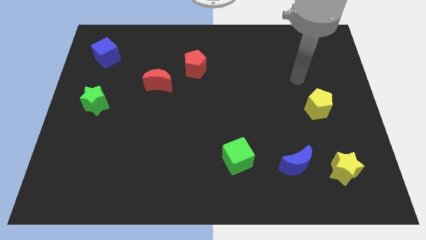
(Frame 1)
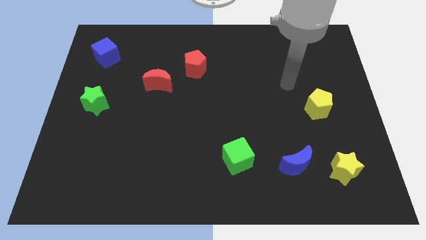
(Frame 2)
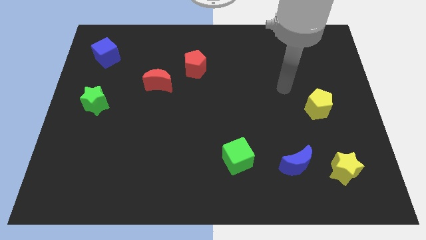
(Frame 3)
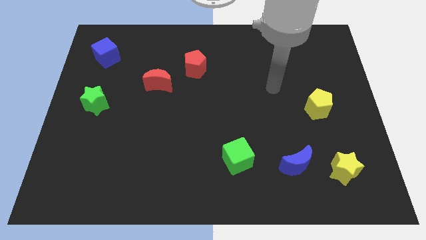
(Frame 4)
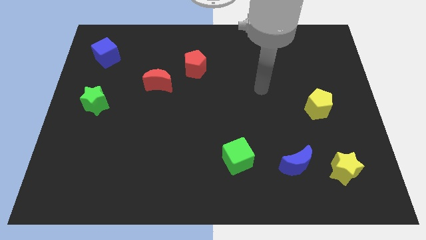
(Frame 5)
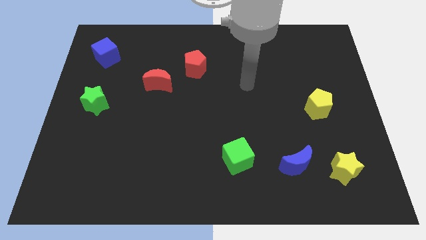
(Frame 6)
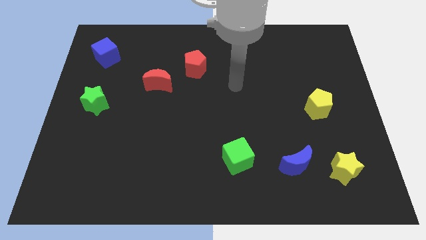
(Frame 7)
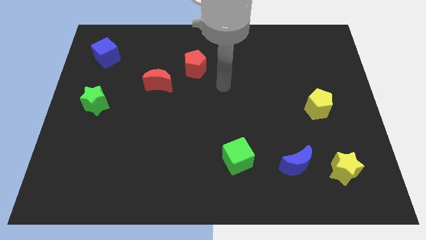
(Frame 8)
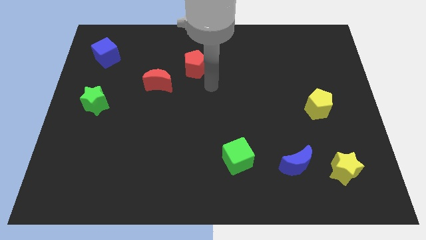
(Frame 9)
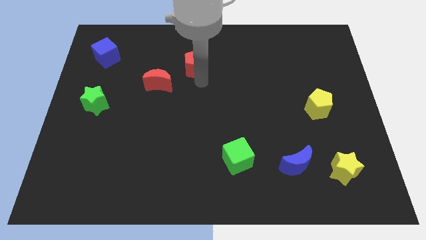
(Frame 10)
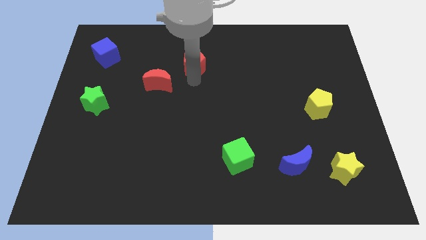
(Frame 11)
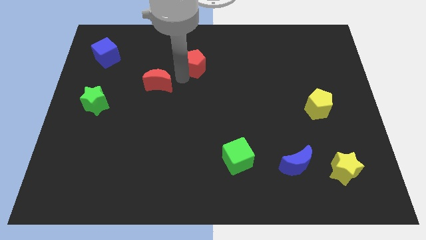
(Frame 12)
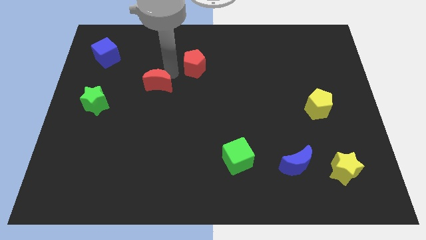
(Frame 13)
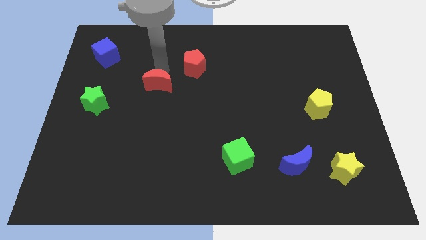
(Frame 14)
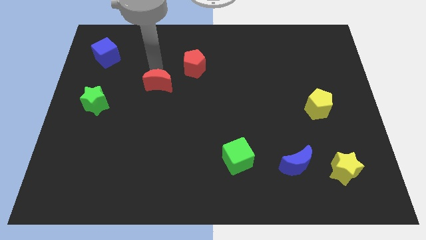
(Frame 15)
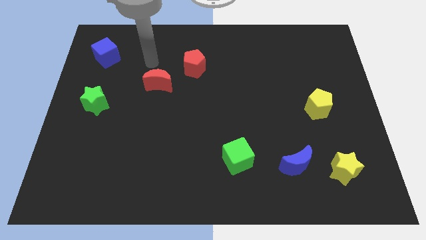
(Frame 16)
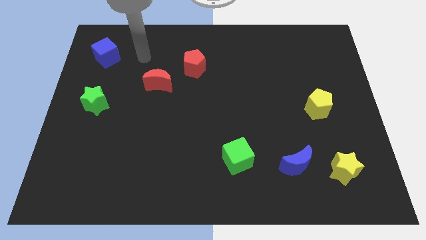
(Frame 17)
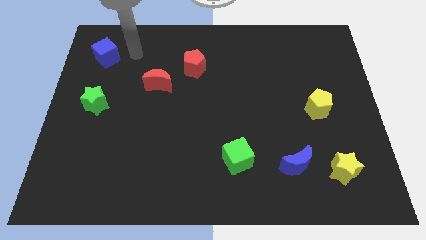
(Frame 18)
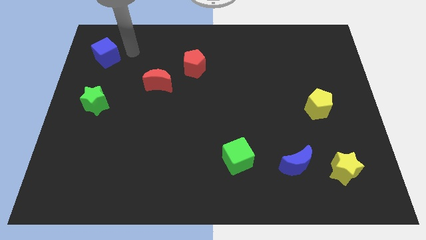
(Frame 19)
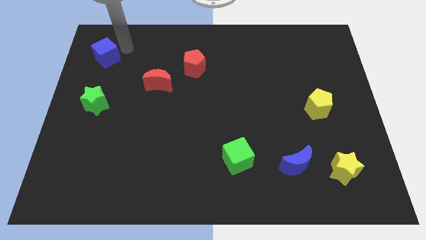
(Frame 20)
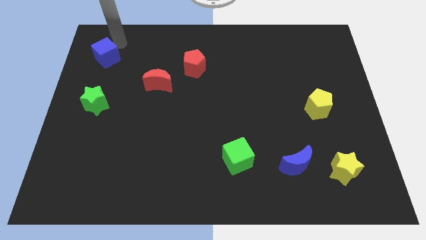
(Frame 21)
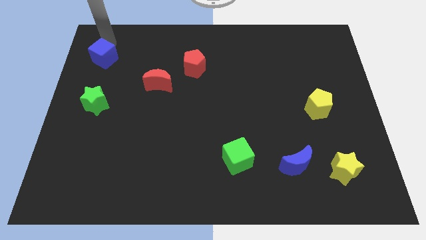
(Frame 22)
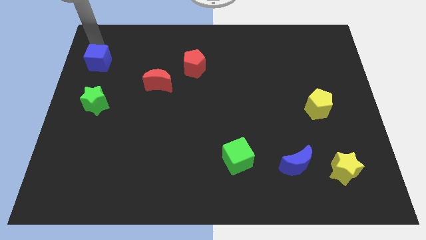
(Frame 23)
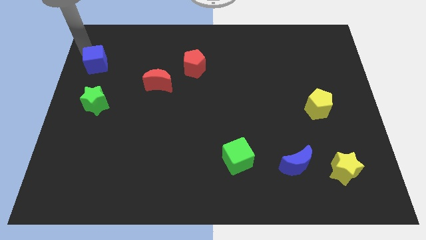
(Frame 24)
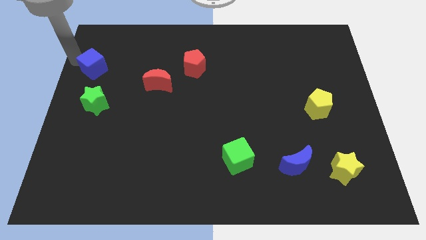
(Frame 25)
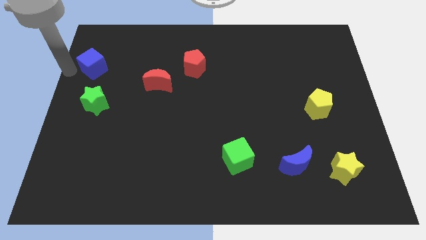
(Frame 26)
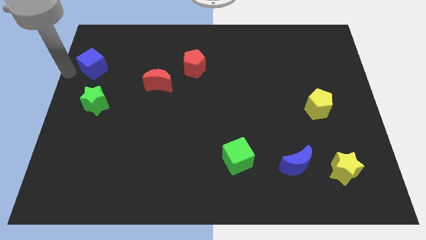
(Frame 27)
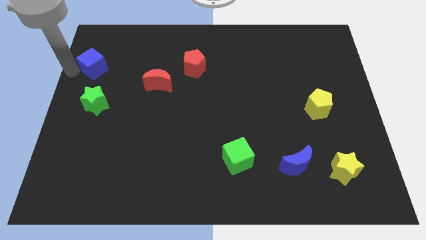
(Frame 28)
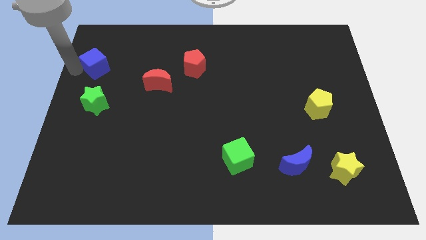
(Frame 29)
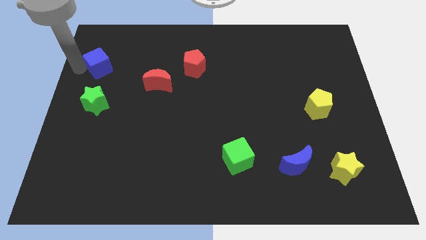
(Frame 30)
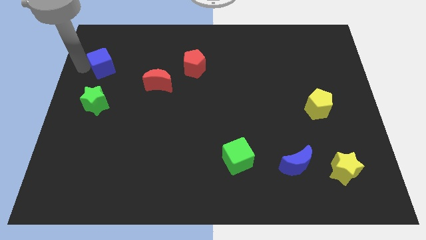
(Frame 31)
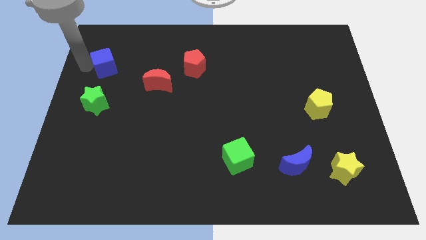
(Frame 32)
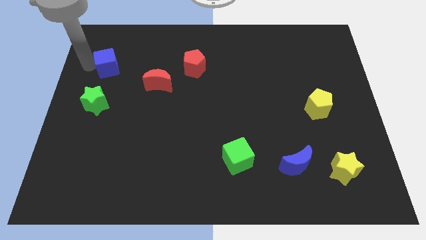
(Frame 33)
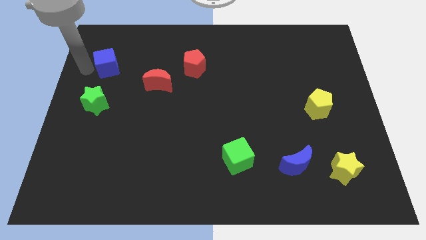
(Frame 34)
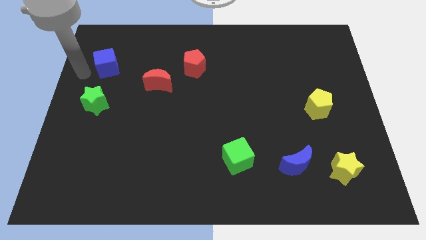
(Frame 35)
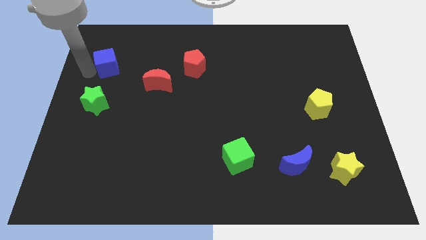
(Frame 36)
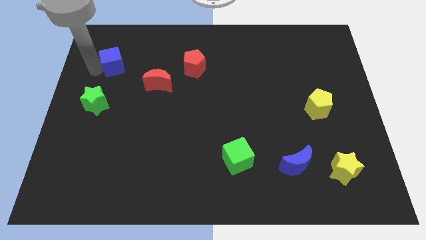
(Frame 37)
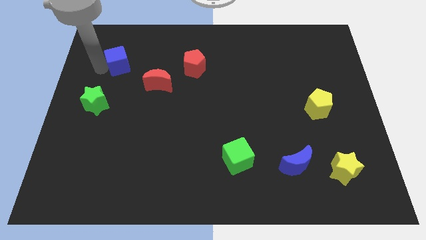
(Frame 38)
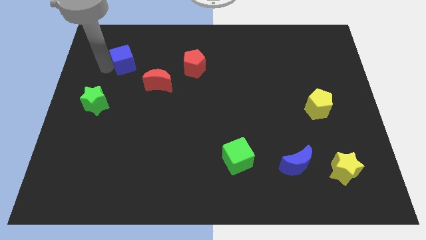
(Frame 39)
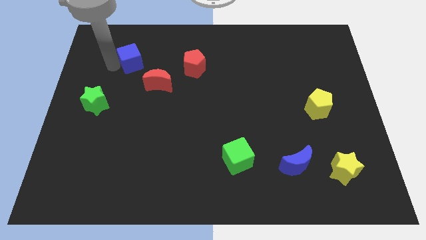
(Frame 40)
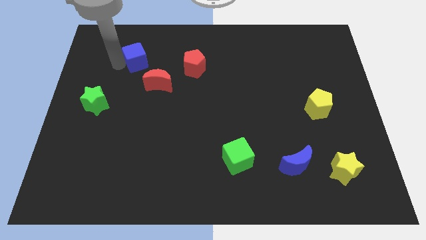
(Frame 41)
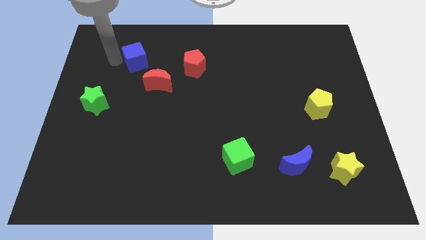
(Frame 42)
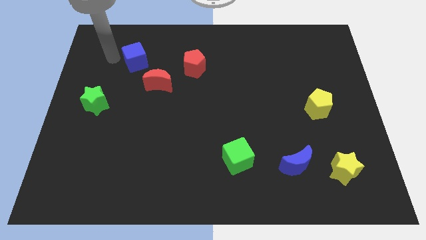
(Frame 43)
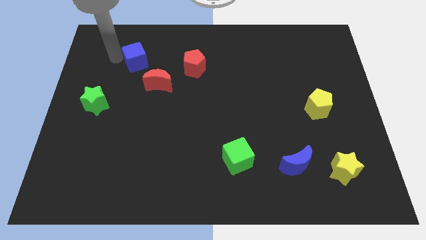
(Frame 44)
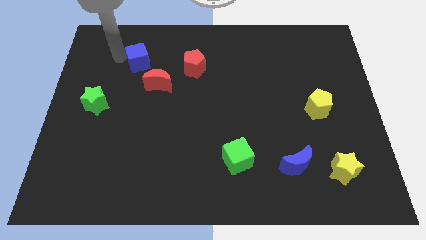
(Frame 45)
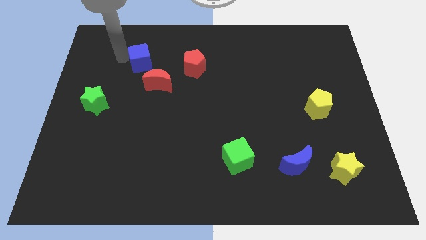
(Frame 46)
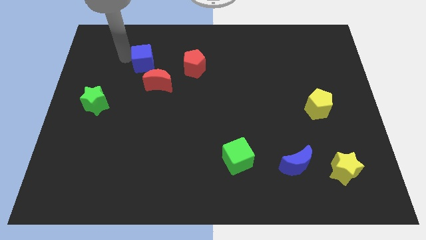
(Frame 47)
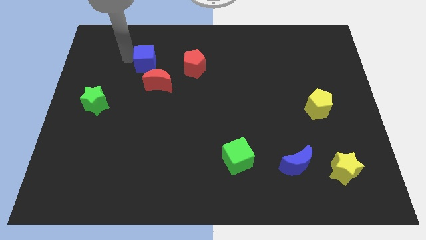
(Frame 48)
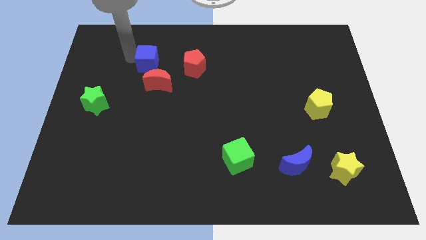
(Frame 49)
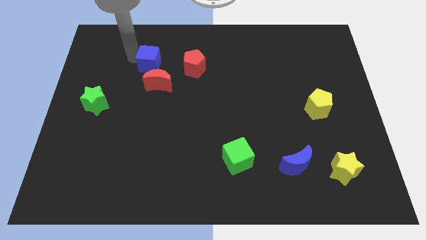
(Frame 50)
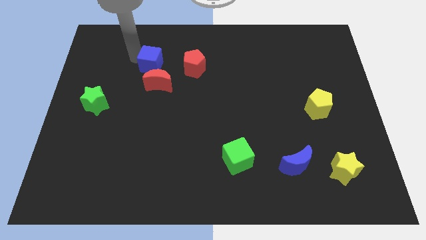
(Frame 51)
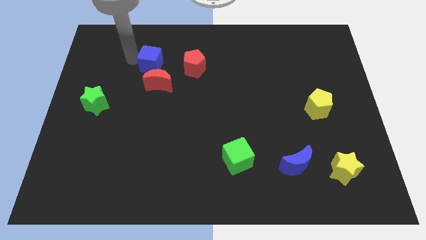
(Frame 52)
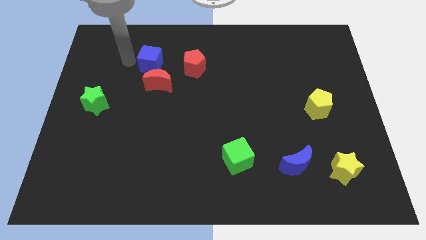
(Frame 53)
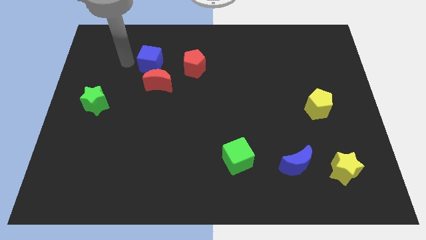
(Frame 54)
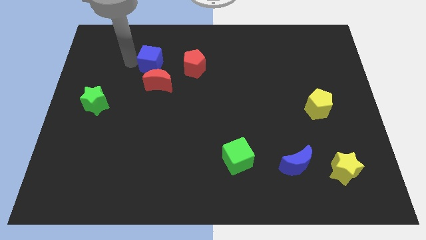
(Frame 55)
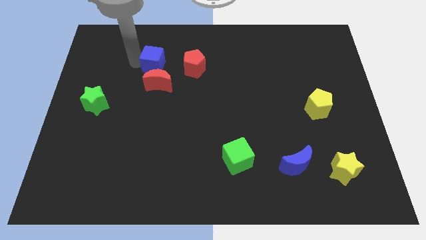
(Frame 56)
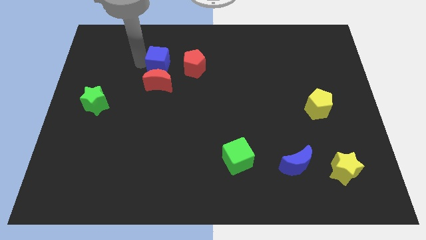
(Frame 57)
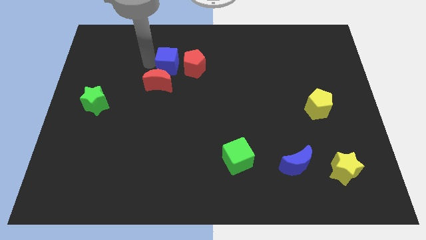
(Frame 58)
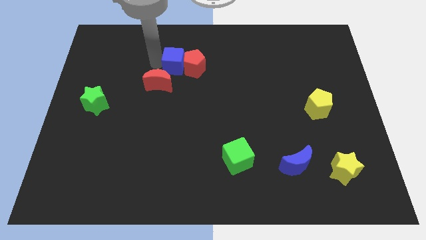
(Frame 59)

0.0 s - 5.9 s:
push the blue cube close to the red pentagon

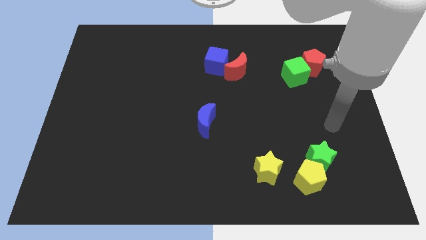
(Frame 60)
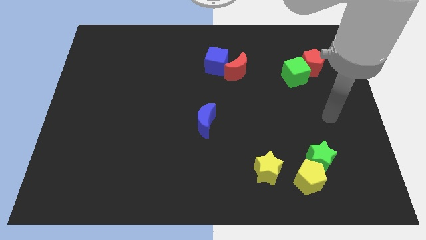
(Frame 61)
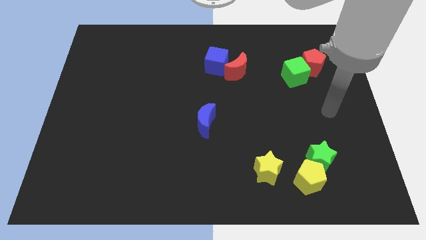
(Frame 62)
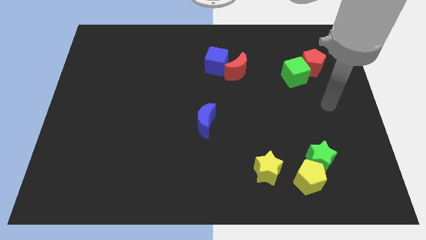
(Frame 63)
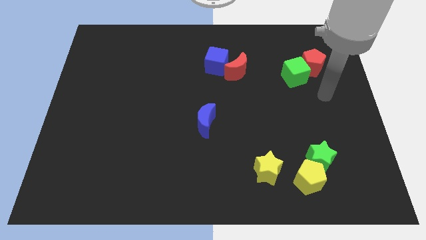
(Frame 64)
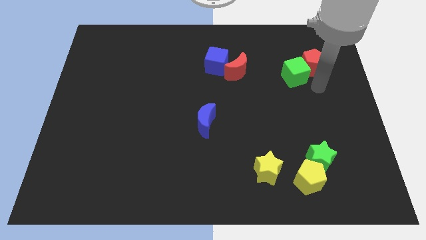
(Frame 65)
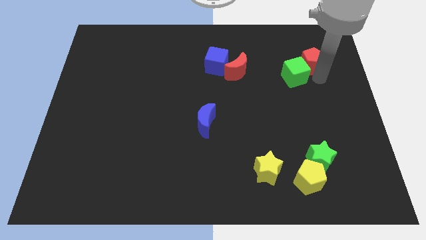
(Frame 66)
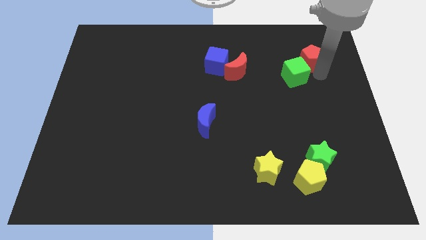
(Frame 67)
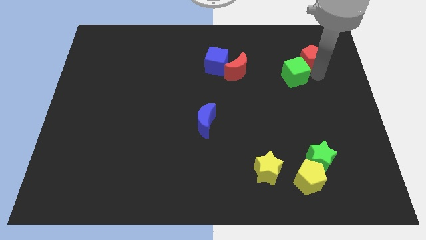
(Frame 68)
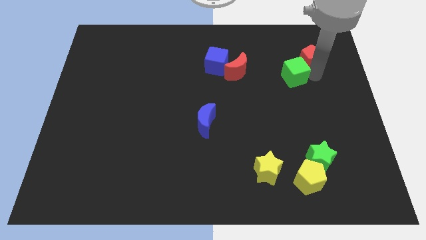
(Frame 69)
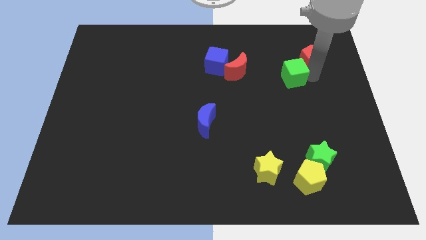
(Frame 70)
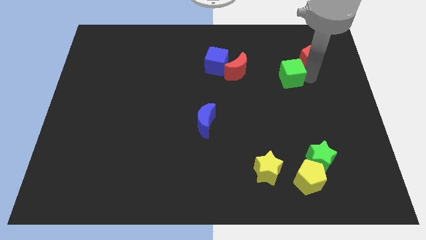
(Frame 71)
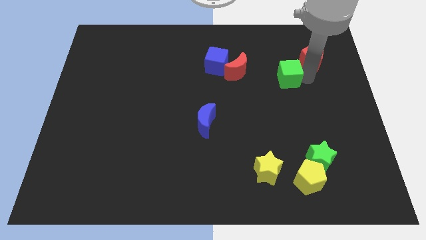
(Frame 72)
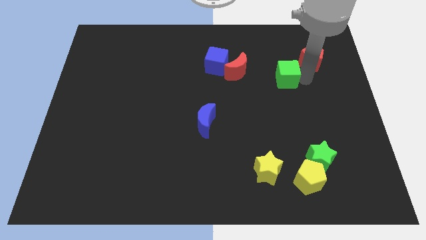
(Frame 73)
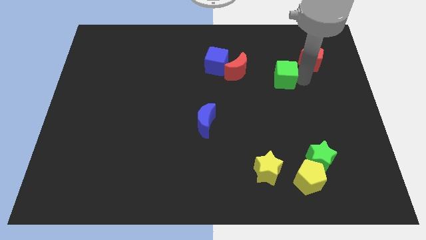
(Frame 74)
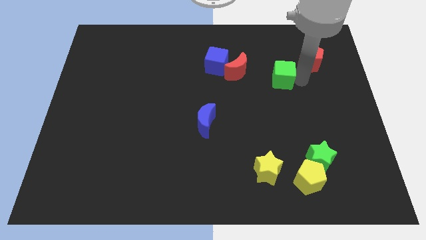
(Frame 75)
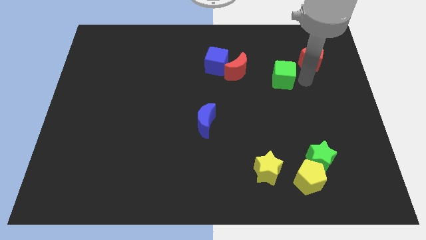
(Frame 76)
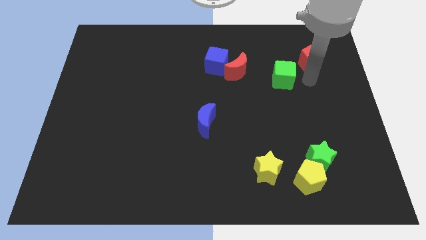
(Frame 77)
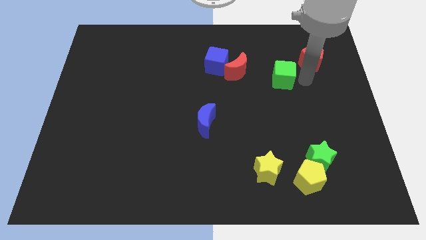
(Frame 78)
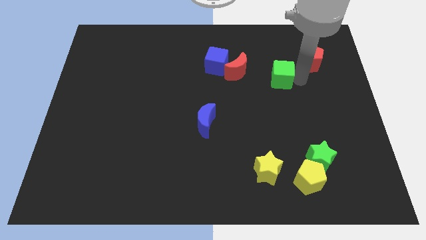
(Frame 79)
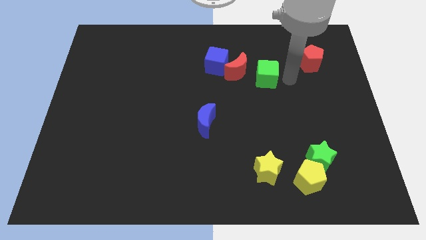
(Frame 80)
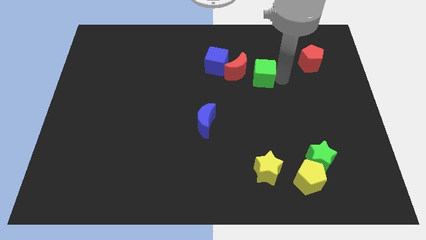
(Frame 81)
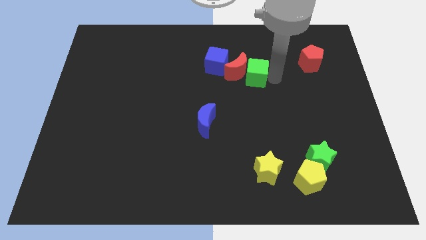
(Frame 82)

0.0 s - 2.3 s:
move the green cube to the red moon
